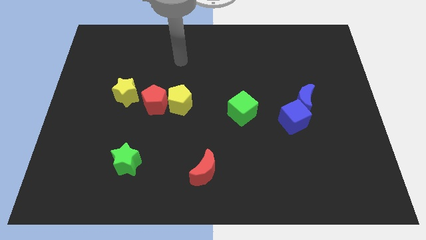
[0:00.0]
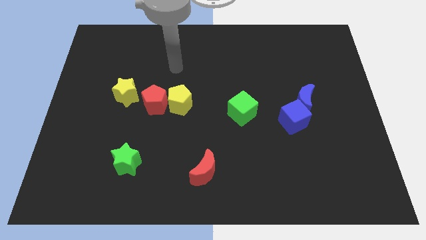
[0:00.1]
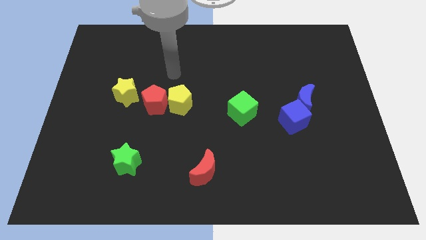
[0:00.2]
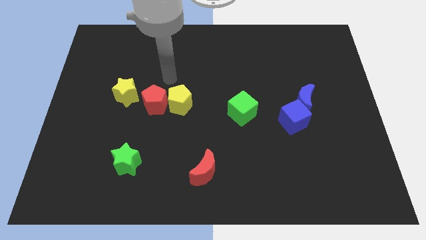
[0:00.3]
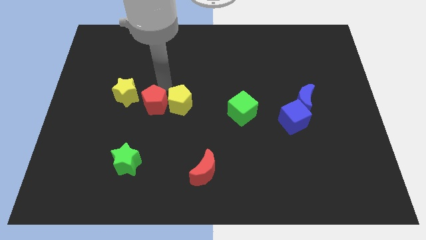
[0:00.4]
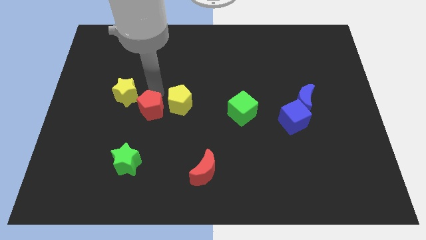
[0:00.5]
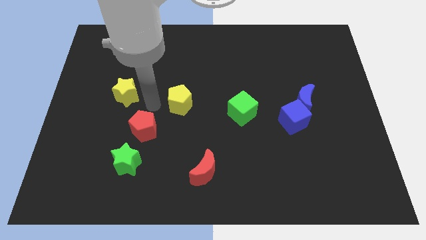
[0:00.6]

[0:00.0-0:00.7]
pull the yellow pentagon apart from the red pentagon

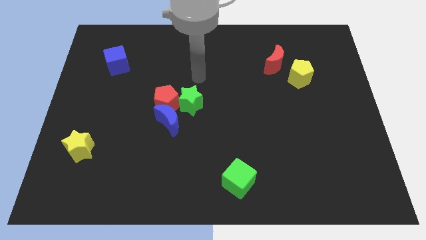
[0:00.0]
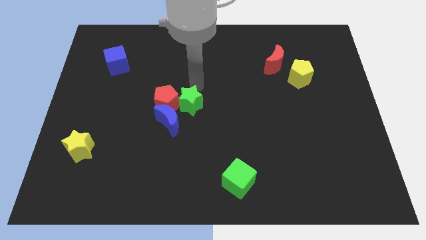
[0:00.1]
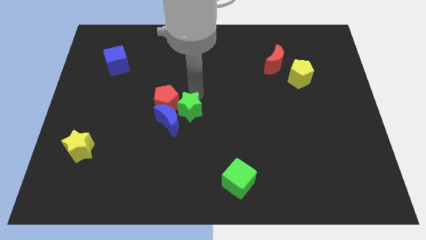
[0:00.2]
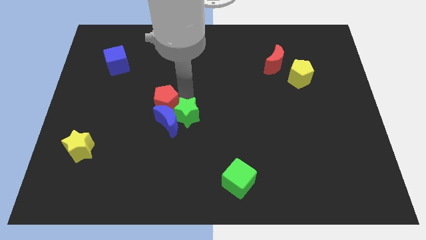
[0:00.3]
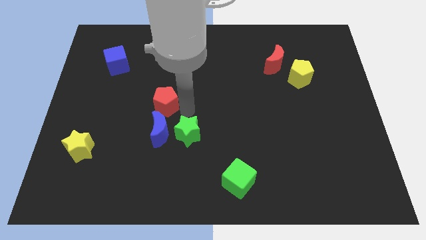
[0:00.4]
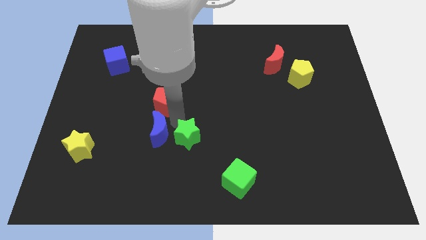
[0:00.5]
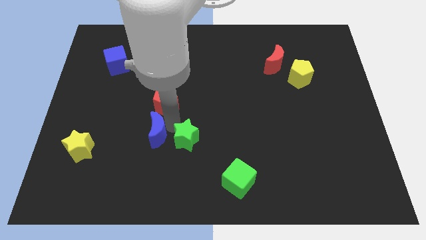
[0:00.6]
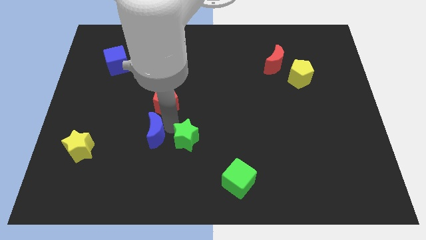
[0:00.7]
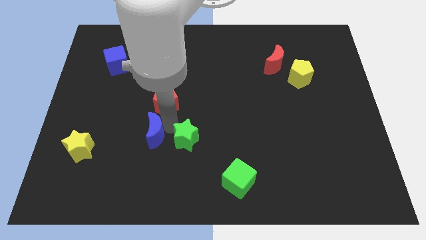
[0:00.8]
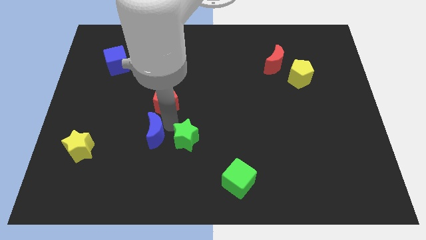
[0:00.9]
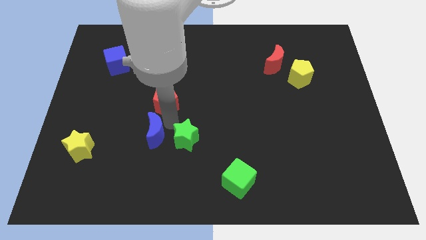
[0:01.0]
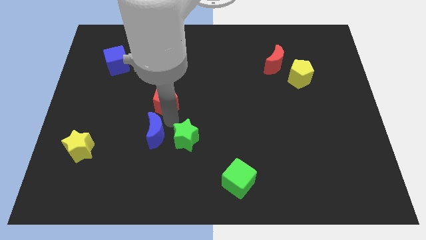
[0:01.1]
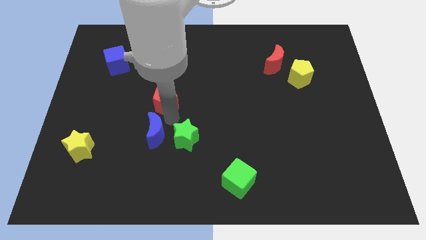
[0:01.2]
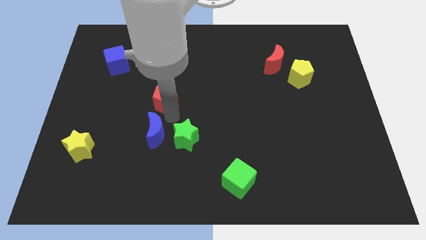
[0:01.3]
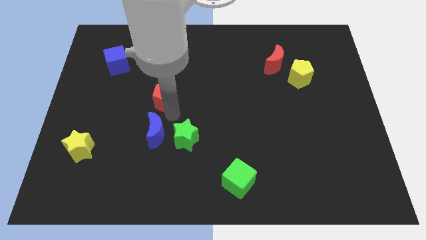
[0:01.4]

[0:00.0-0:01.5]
move the red pentagon away from the blue moon and green star

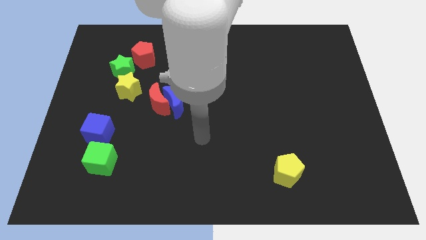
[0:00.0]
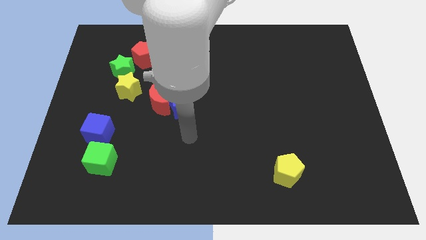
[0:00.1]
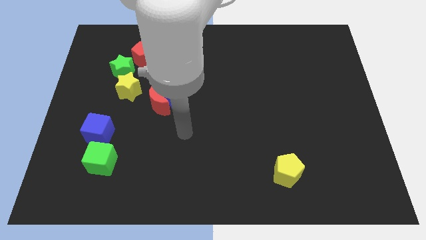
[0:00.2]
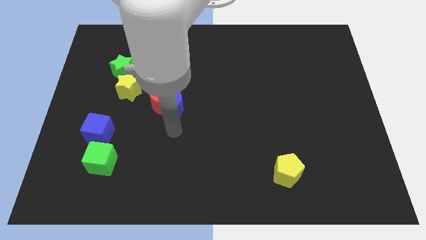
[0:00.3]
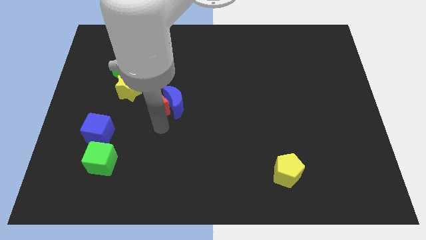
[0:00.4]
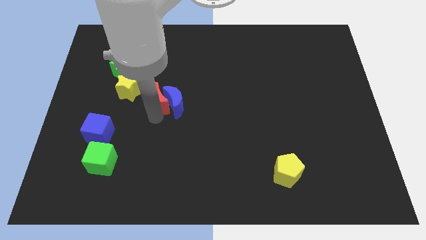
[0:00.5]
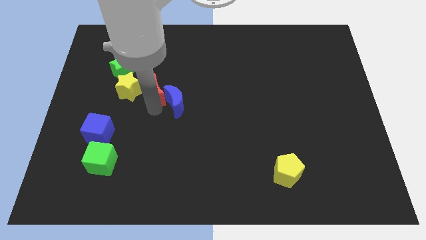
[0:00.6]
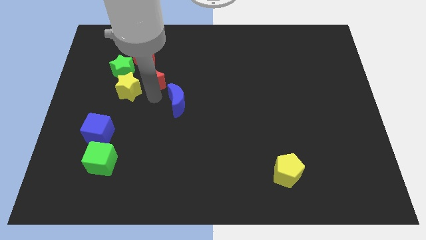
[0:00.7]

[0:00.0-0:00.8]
pull the blue moon apart from the red moon

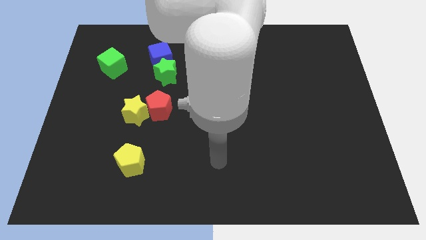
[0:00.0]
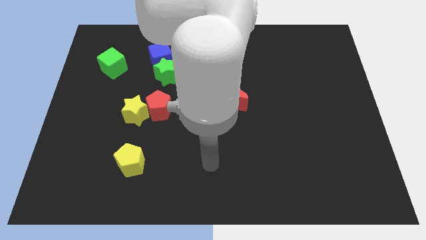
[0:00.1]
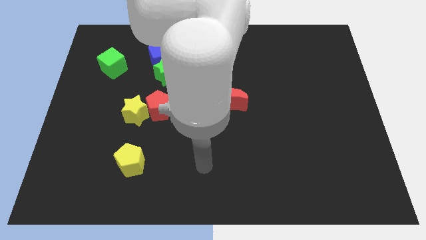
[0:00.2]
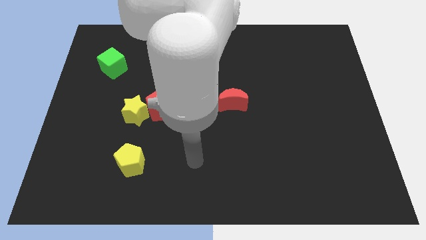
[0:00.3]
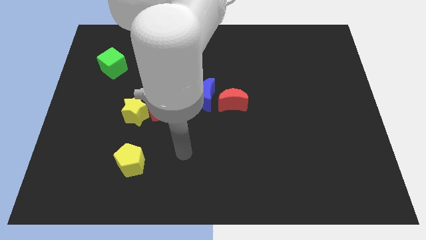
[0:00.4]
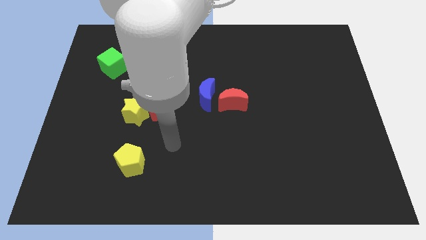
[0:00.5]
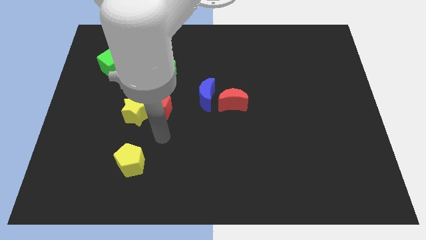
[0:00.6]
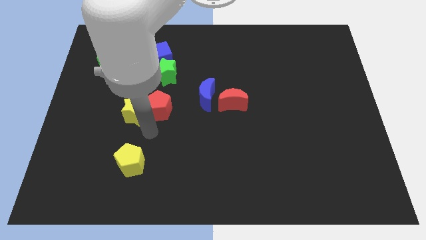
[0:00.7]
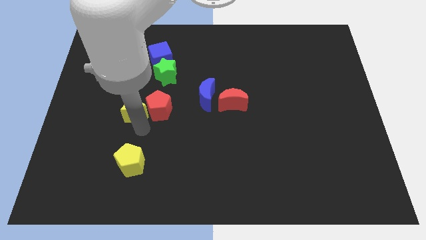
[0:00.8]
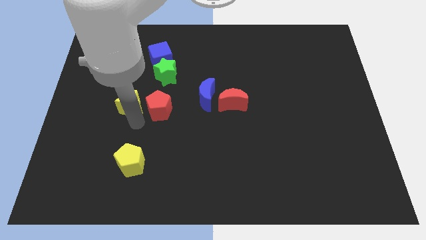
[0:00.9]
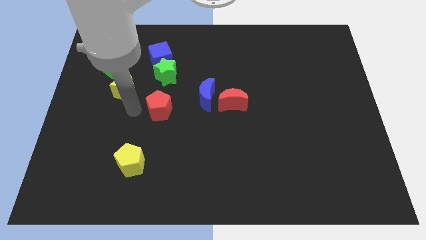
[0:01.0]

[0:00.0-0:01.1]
separate the red pentagon from the yellow star

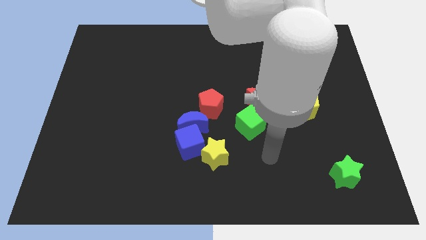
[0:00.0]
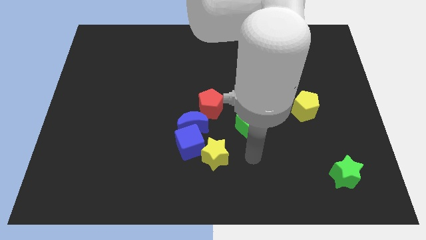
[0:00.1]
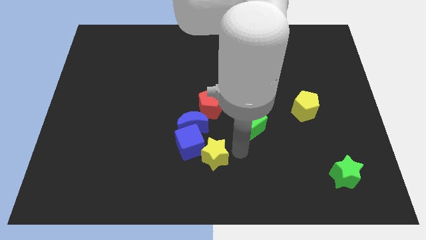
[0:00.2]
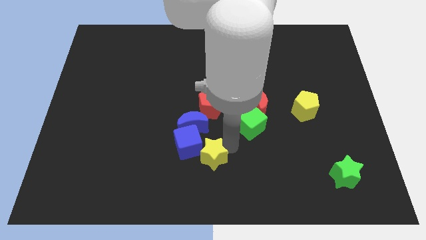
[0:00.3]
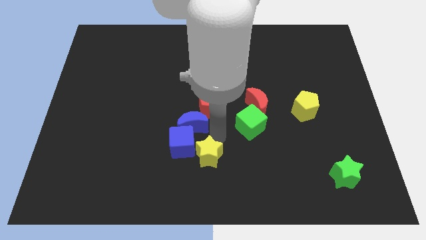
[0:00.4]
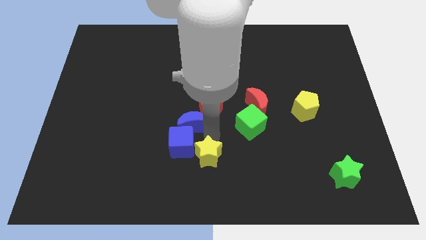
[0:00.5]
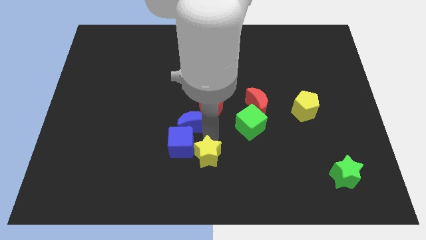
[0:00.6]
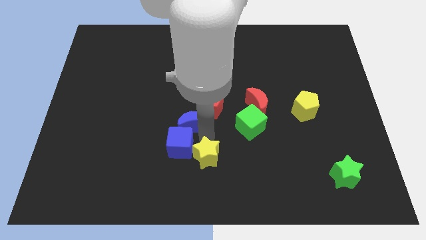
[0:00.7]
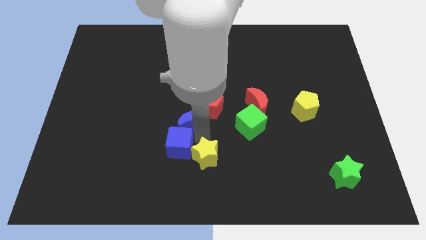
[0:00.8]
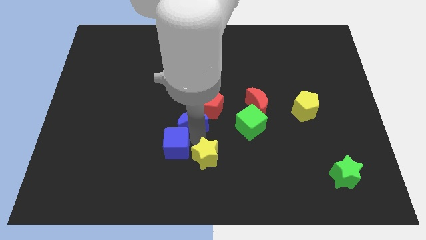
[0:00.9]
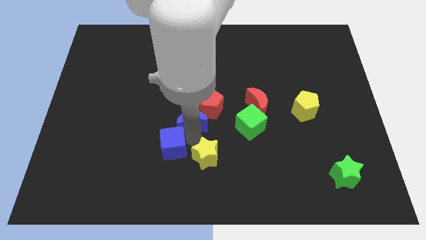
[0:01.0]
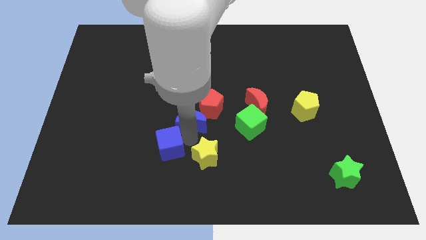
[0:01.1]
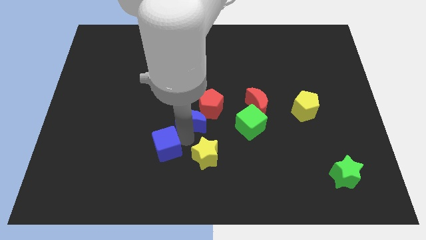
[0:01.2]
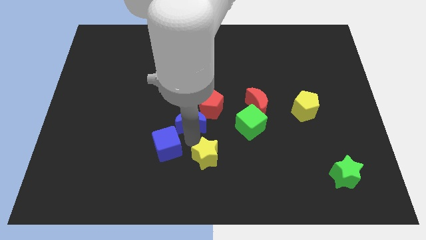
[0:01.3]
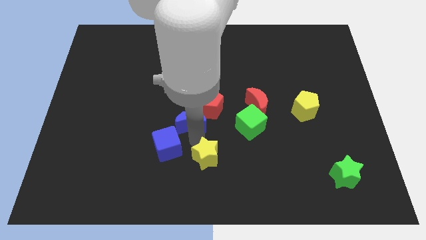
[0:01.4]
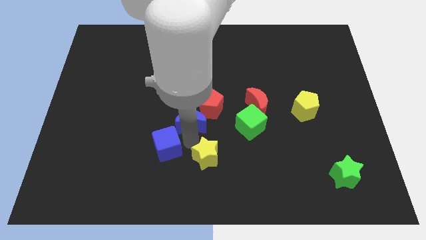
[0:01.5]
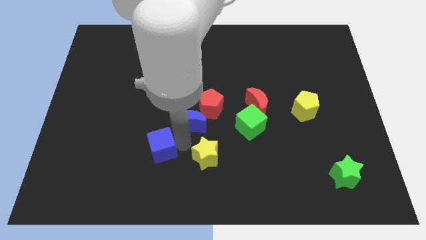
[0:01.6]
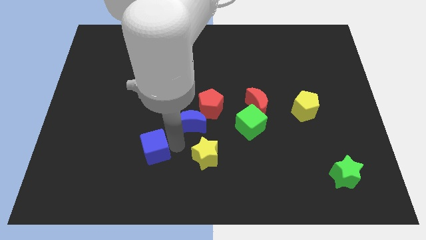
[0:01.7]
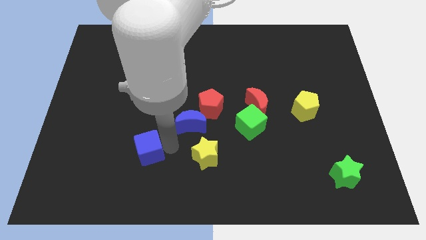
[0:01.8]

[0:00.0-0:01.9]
separate the blue cube from the blue moon and yellow star

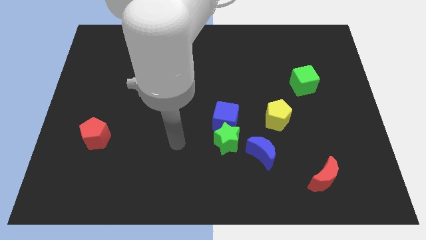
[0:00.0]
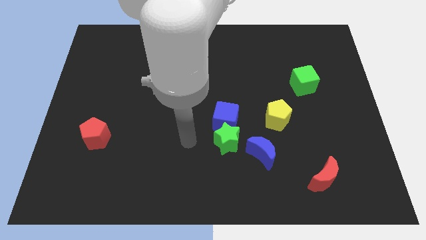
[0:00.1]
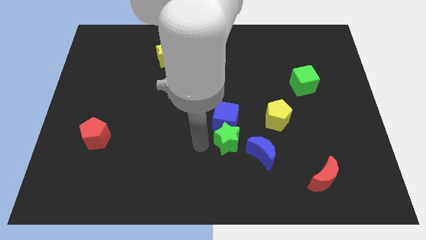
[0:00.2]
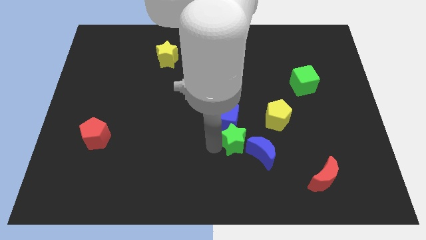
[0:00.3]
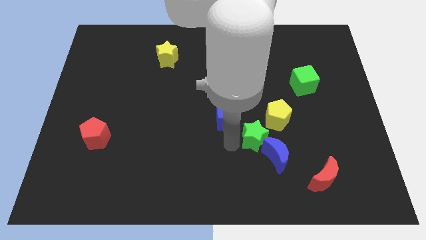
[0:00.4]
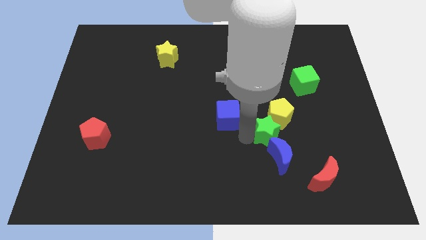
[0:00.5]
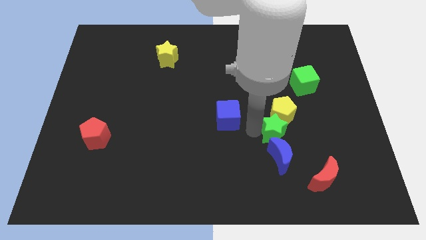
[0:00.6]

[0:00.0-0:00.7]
pull the blue cube apart from the green star

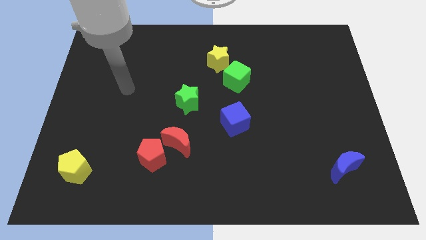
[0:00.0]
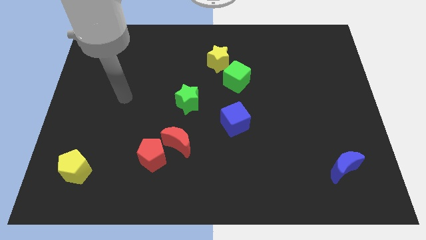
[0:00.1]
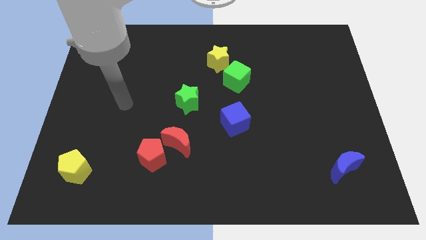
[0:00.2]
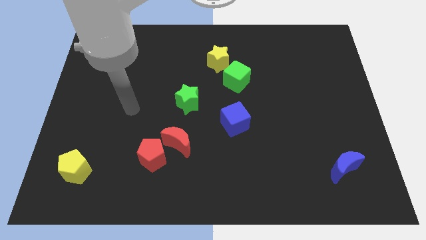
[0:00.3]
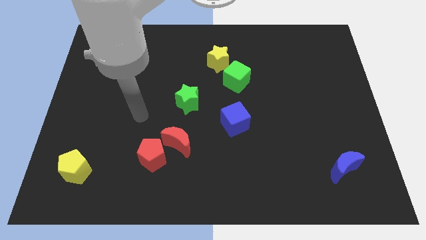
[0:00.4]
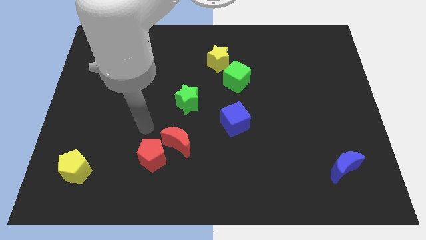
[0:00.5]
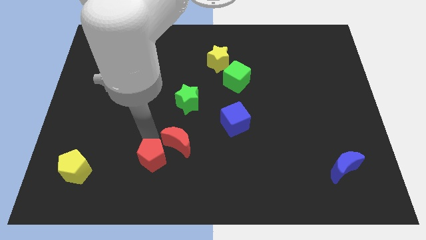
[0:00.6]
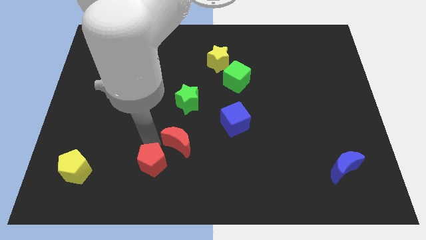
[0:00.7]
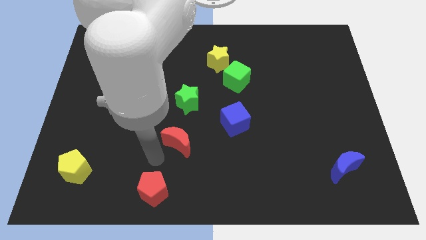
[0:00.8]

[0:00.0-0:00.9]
separate the red moon from the red pentagon

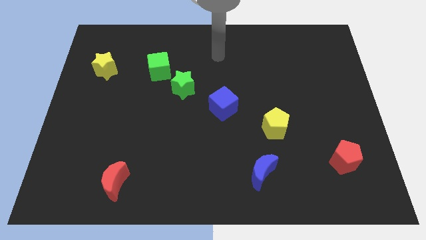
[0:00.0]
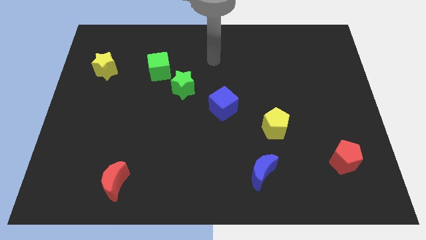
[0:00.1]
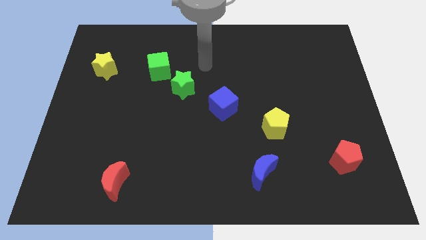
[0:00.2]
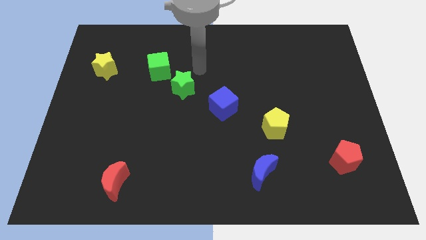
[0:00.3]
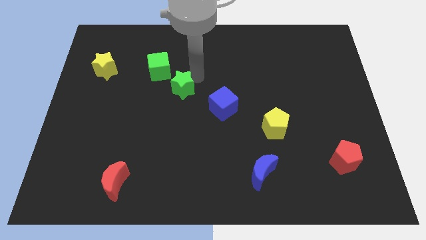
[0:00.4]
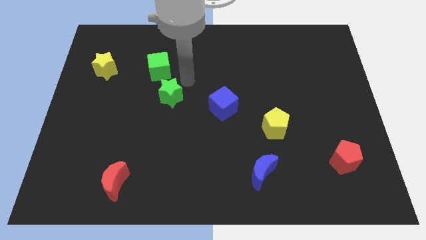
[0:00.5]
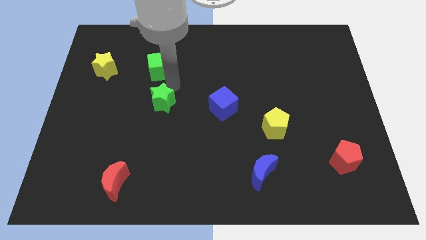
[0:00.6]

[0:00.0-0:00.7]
pull the green cube apart from the green star

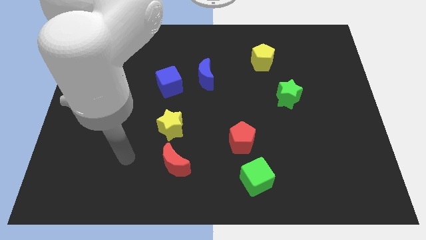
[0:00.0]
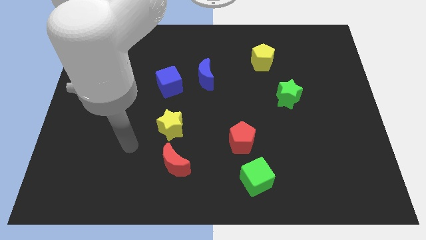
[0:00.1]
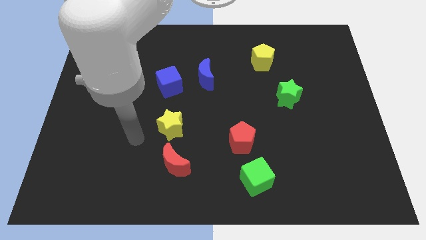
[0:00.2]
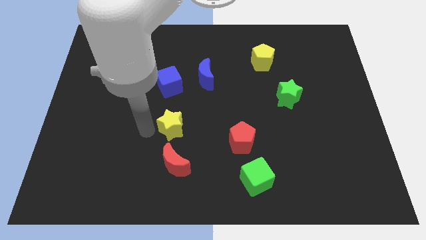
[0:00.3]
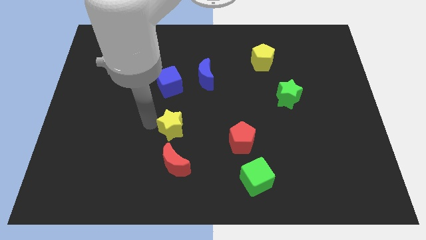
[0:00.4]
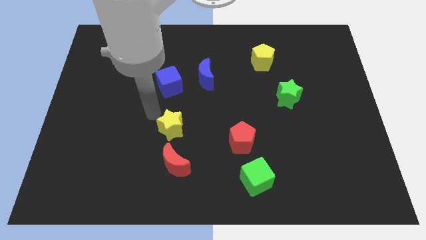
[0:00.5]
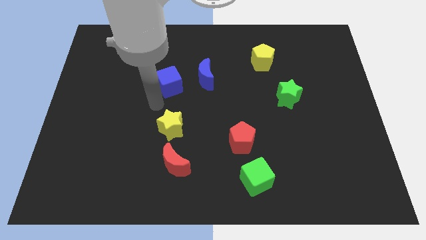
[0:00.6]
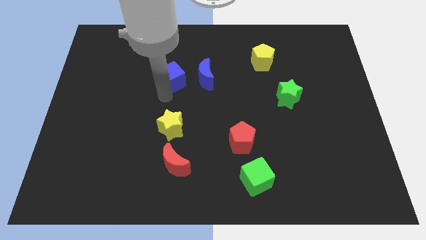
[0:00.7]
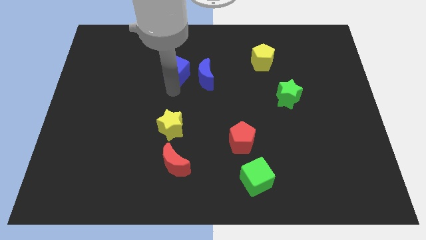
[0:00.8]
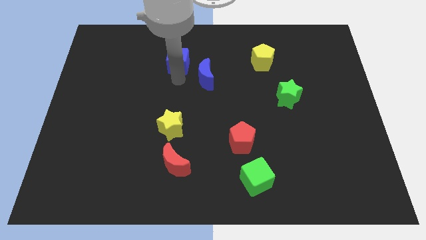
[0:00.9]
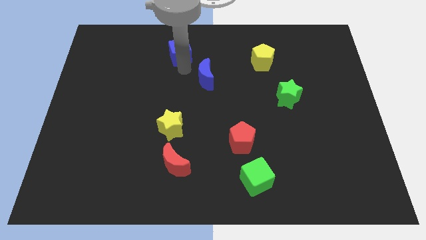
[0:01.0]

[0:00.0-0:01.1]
pull the blue moon apart from the blue cube
